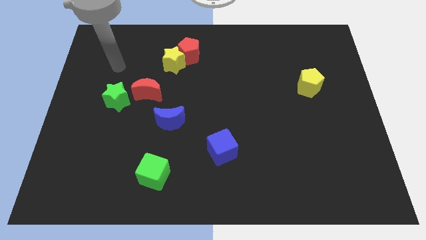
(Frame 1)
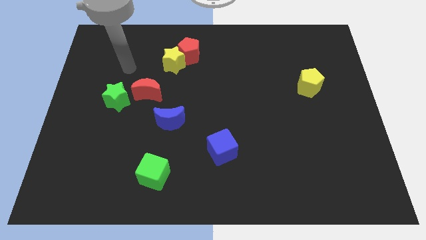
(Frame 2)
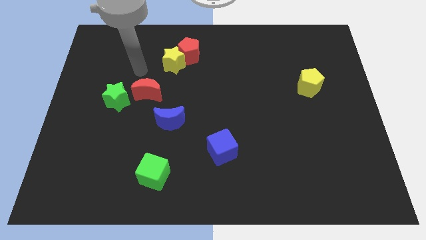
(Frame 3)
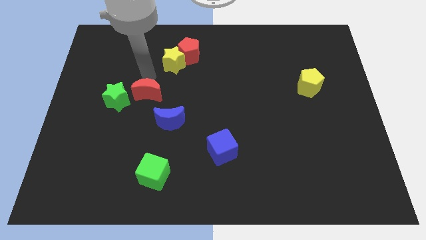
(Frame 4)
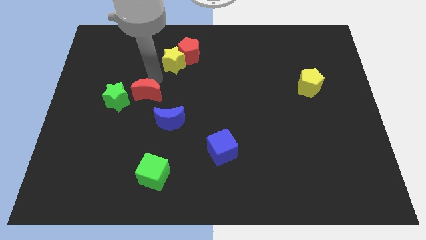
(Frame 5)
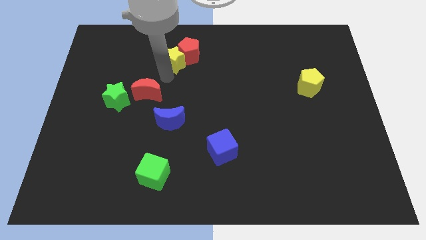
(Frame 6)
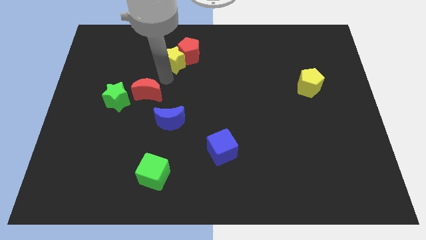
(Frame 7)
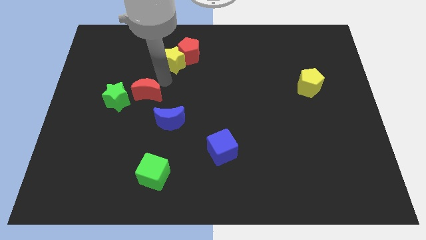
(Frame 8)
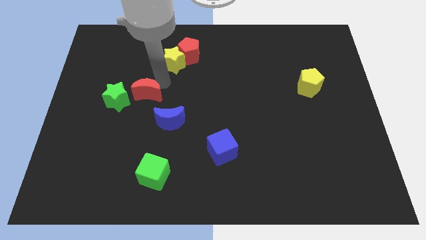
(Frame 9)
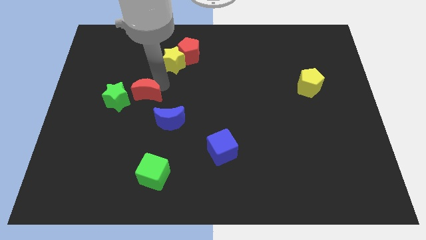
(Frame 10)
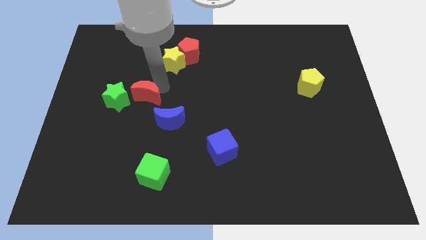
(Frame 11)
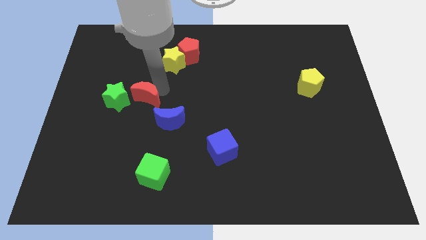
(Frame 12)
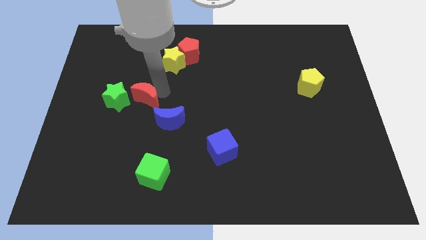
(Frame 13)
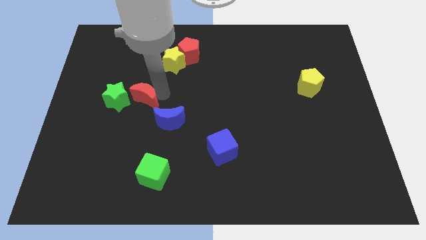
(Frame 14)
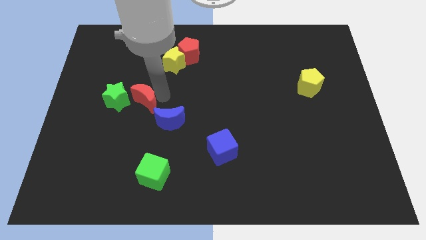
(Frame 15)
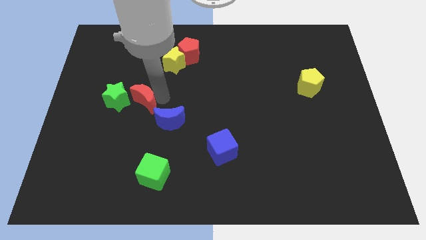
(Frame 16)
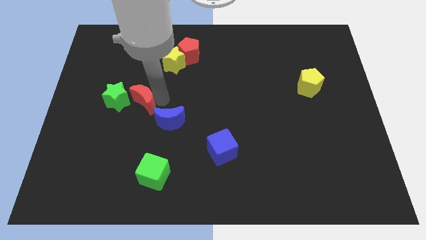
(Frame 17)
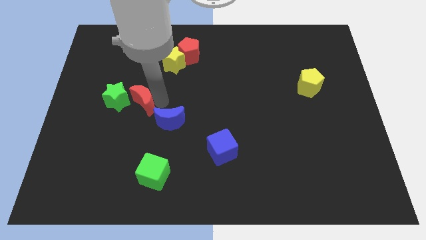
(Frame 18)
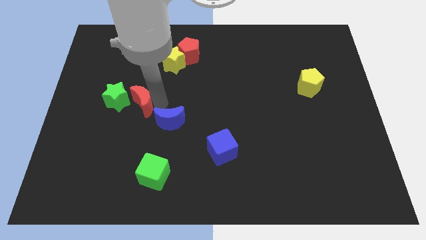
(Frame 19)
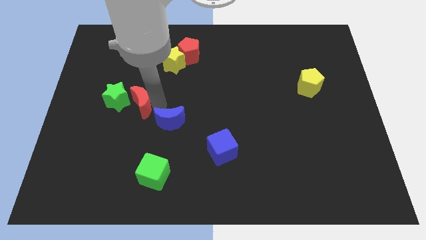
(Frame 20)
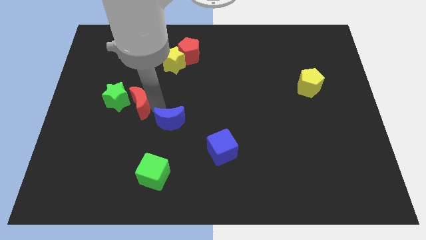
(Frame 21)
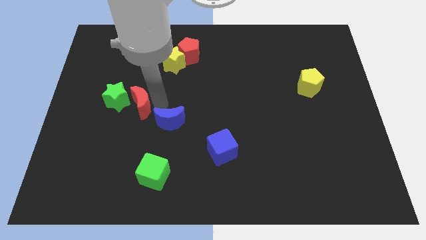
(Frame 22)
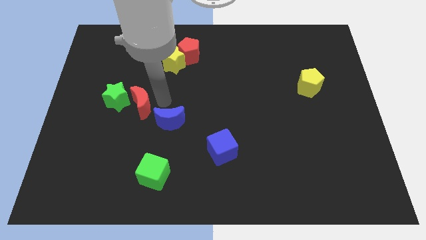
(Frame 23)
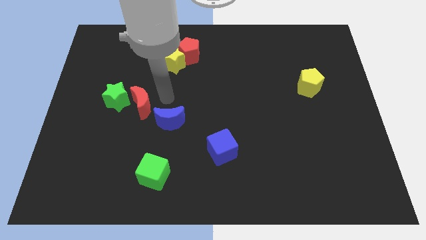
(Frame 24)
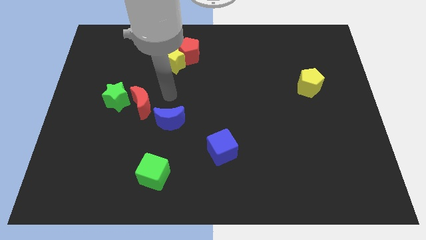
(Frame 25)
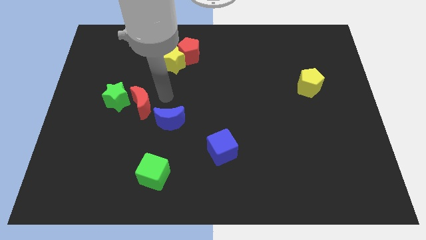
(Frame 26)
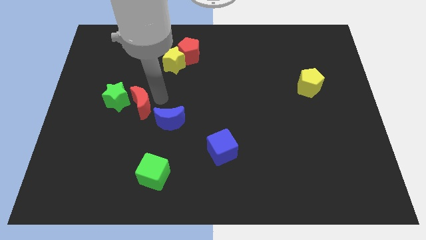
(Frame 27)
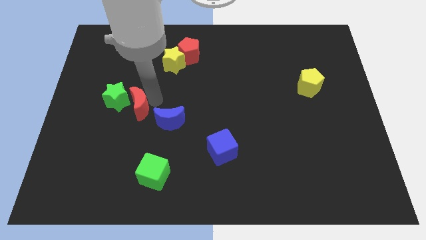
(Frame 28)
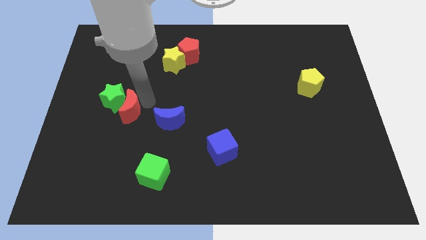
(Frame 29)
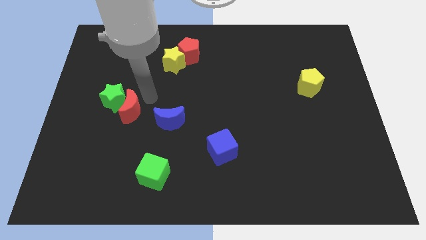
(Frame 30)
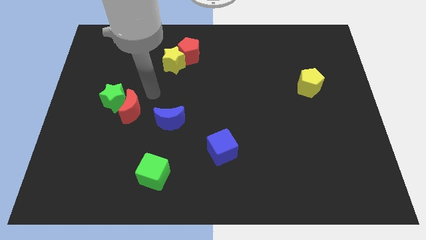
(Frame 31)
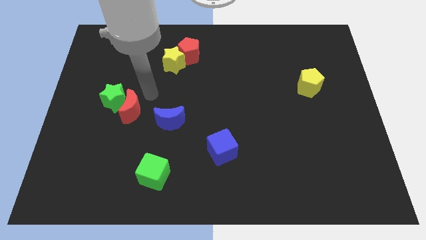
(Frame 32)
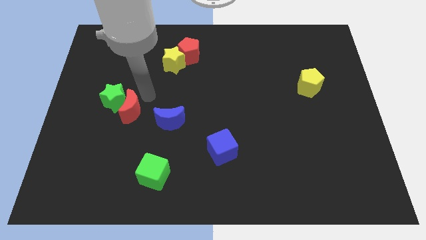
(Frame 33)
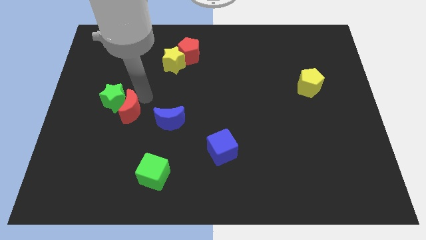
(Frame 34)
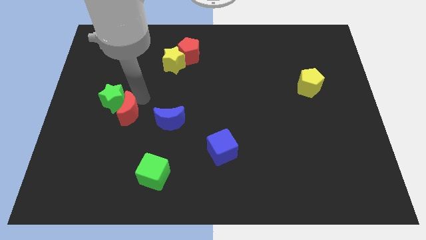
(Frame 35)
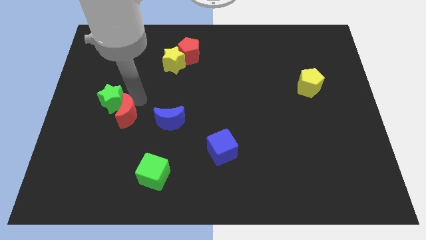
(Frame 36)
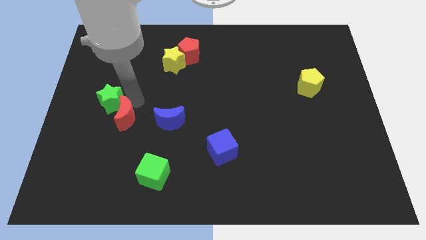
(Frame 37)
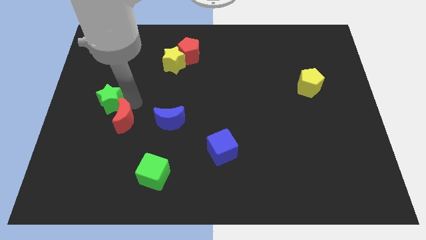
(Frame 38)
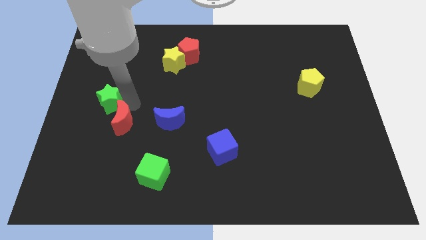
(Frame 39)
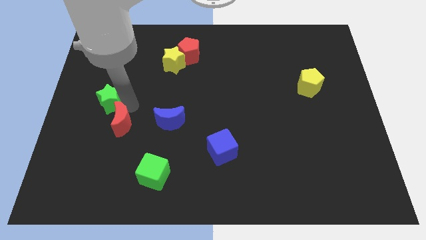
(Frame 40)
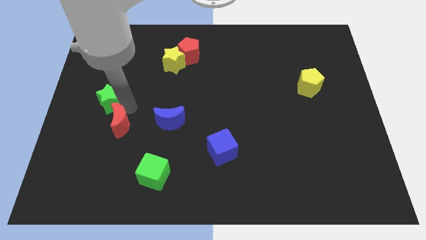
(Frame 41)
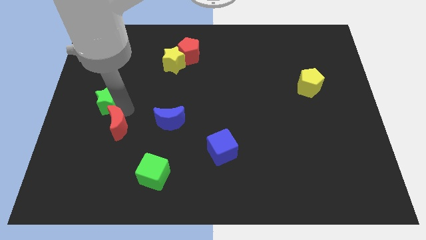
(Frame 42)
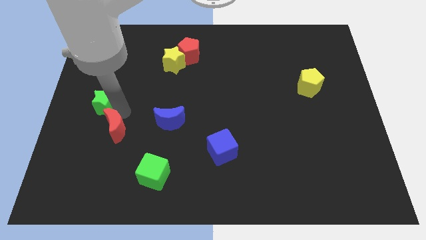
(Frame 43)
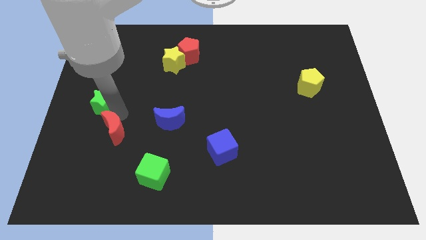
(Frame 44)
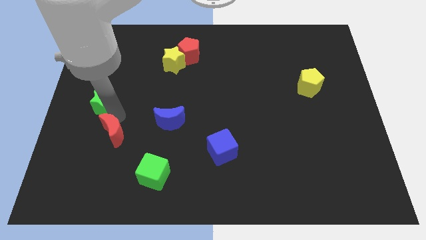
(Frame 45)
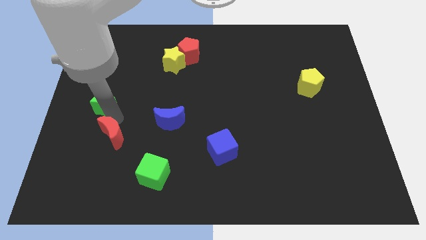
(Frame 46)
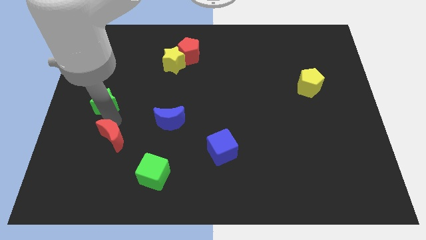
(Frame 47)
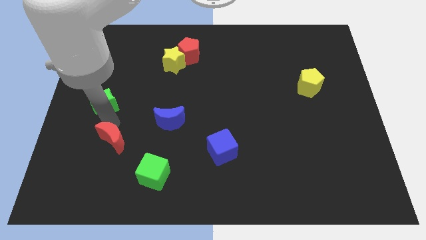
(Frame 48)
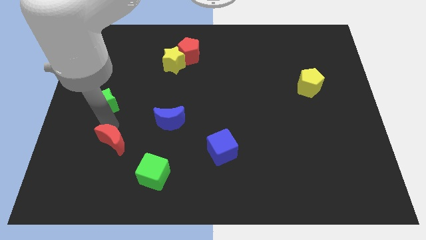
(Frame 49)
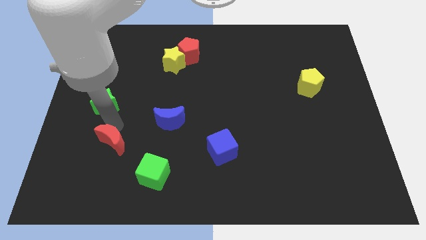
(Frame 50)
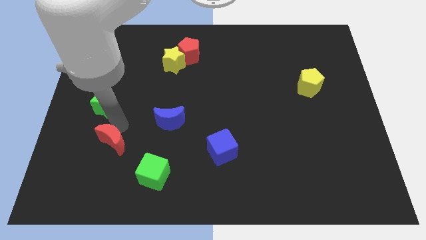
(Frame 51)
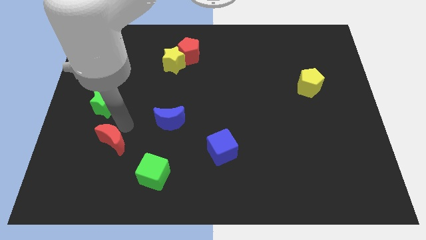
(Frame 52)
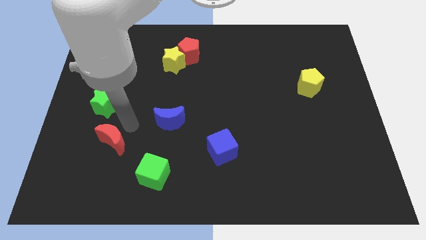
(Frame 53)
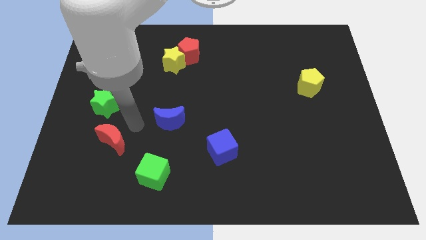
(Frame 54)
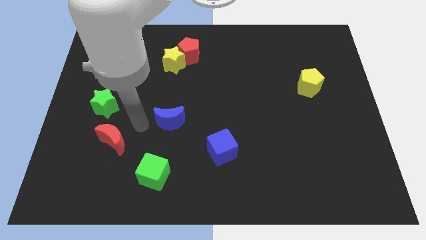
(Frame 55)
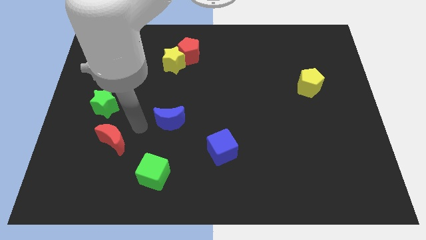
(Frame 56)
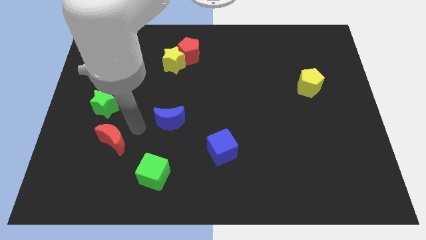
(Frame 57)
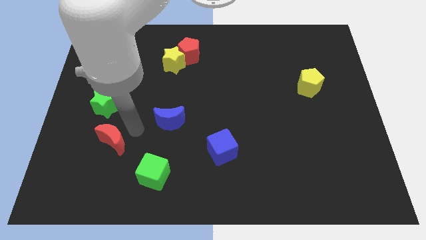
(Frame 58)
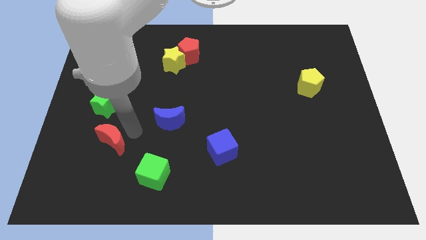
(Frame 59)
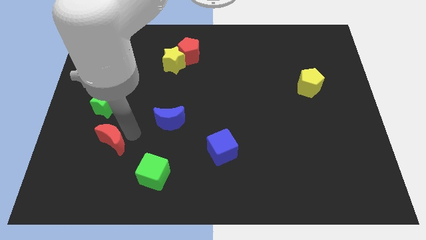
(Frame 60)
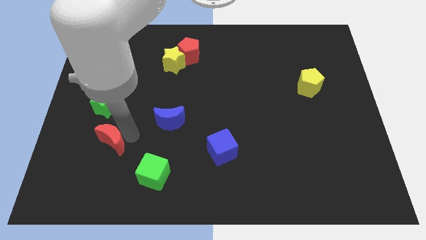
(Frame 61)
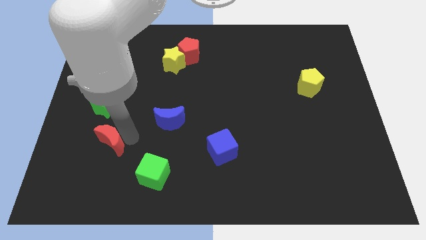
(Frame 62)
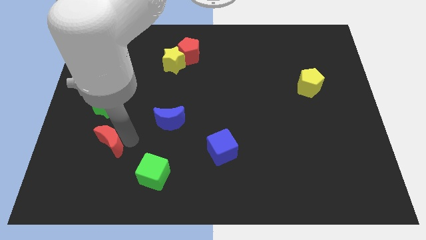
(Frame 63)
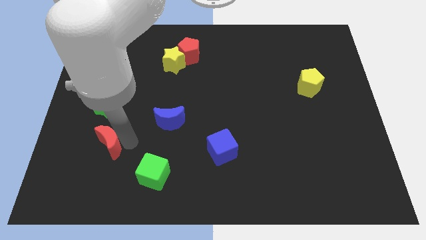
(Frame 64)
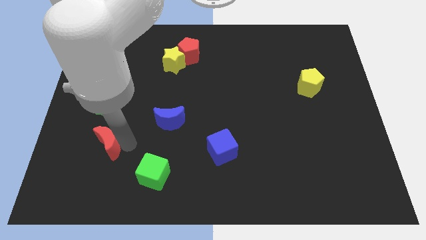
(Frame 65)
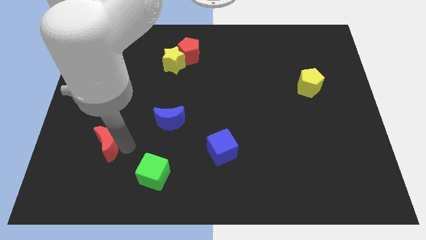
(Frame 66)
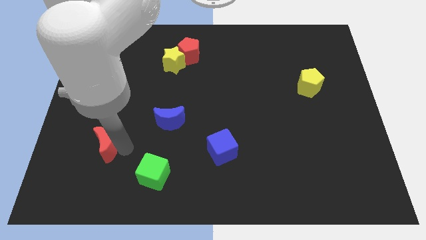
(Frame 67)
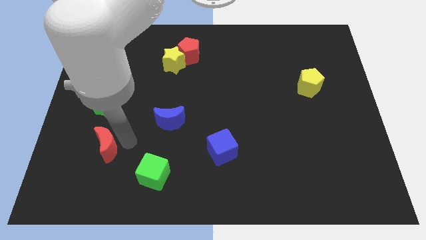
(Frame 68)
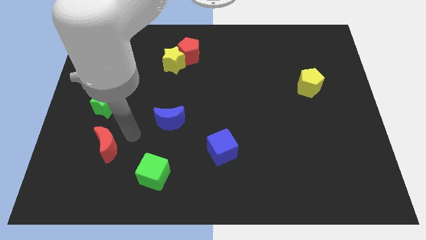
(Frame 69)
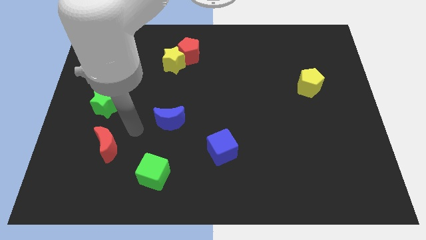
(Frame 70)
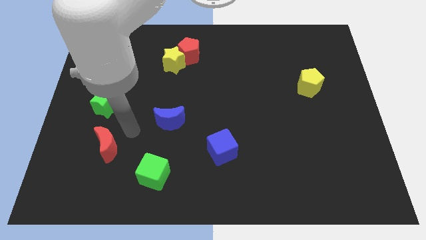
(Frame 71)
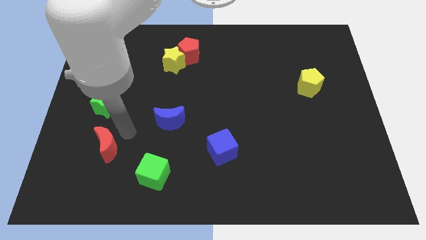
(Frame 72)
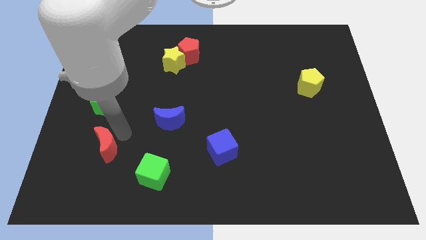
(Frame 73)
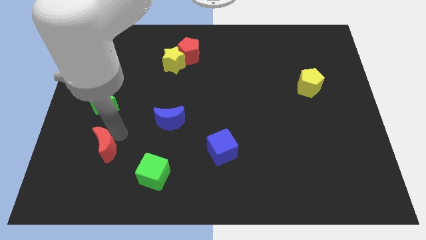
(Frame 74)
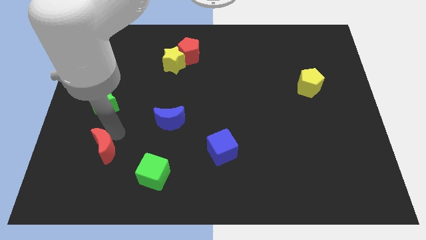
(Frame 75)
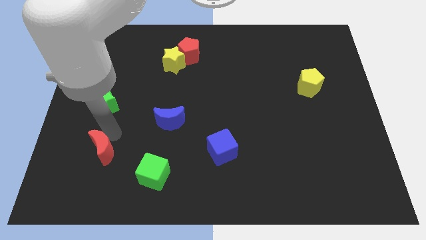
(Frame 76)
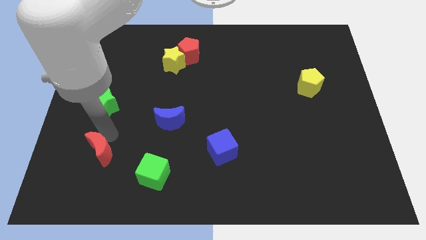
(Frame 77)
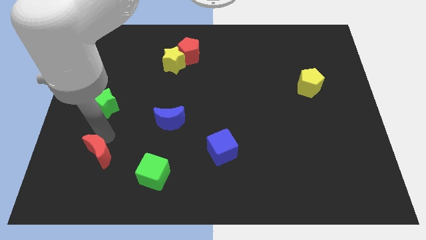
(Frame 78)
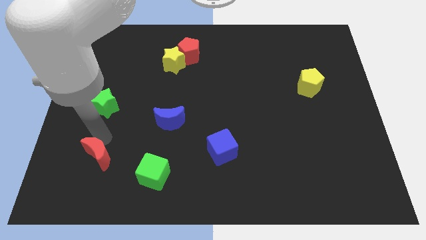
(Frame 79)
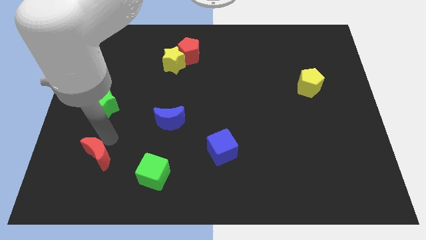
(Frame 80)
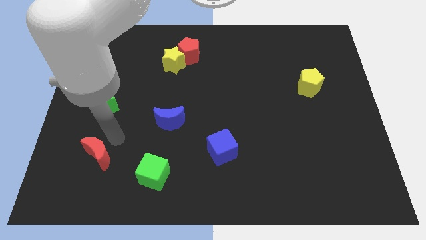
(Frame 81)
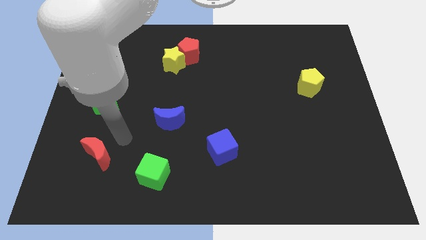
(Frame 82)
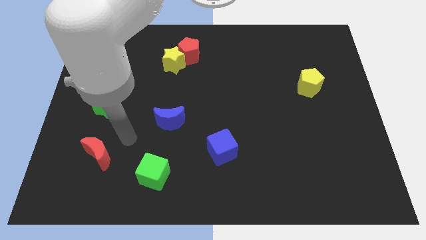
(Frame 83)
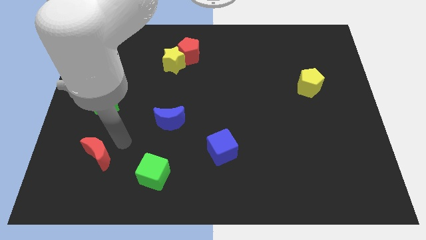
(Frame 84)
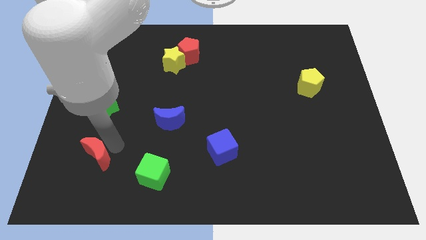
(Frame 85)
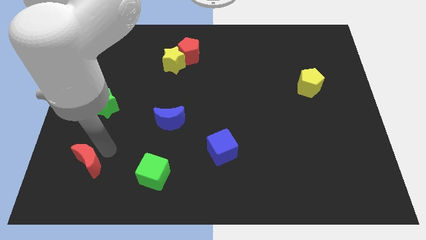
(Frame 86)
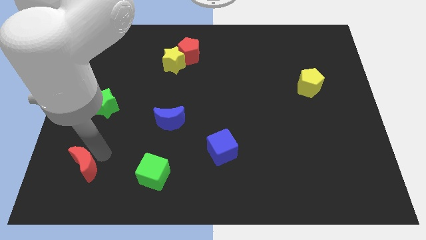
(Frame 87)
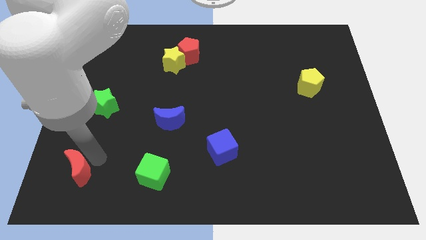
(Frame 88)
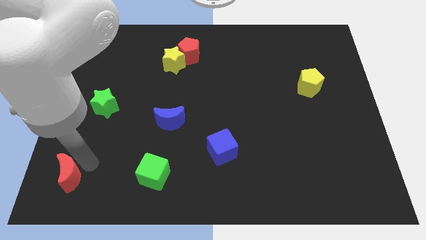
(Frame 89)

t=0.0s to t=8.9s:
push the red moon to the lower left corner
